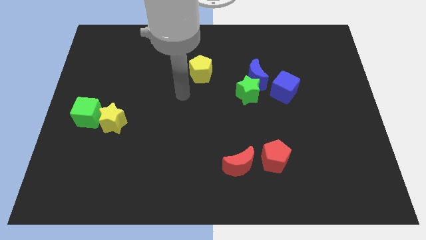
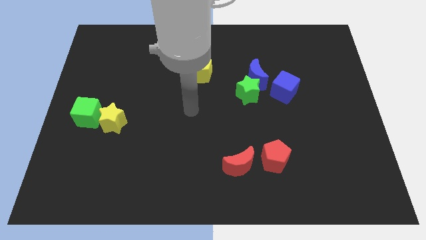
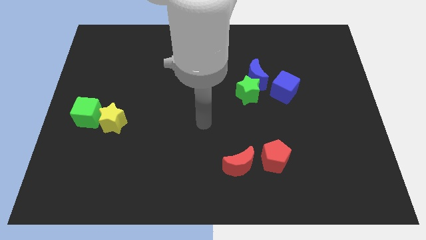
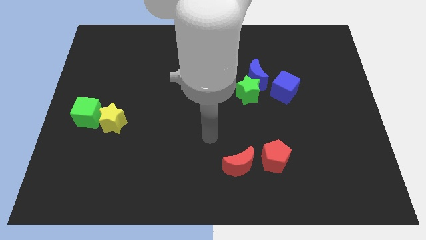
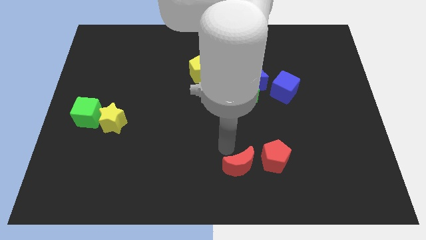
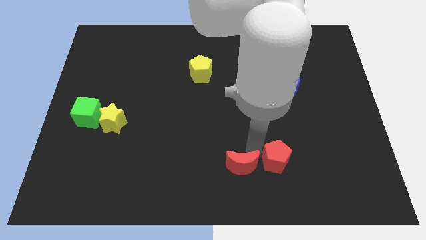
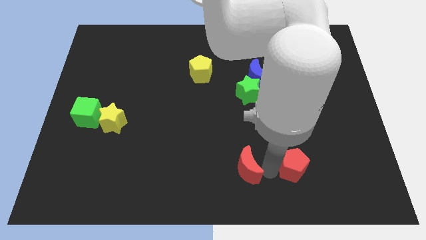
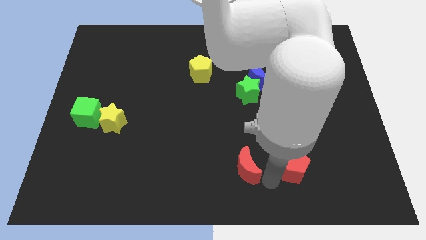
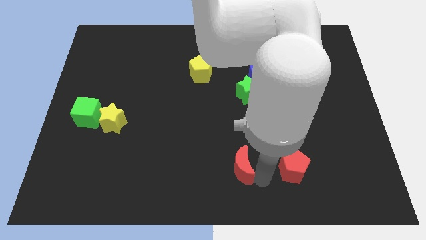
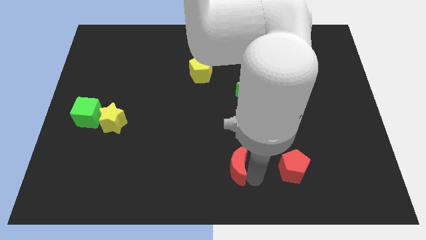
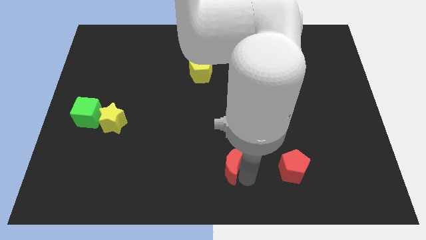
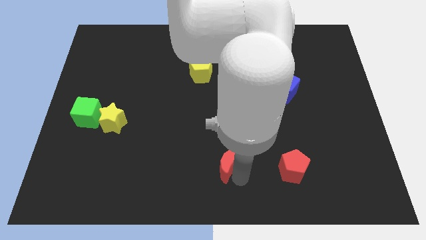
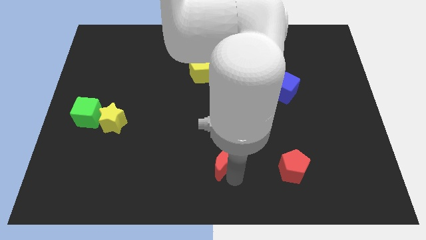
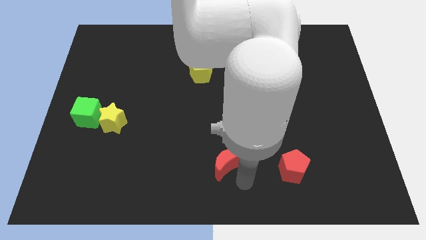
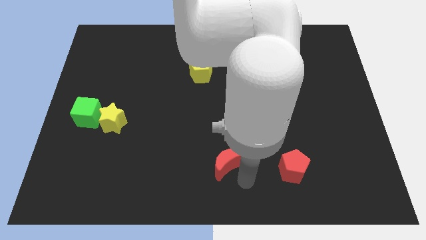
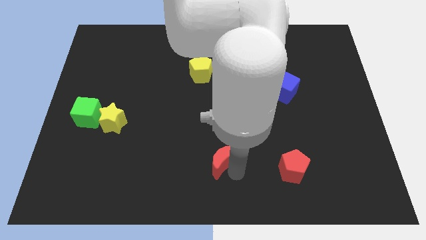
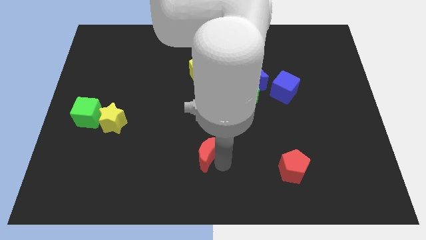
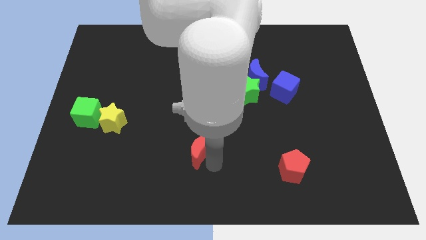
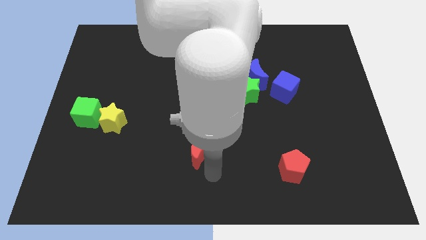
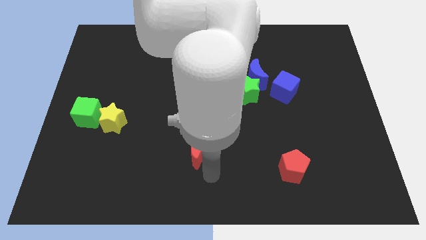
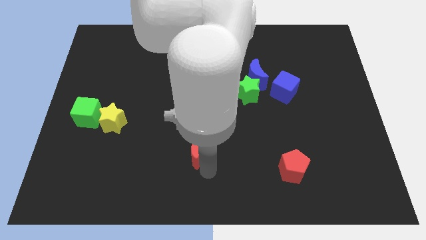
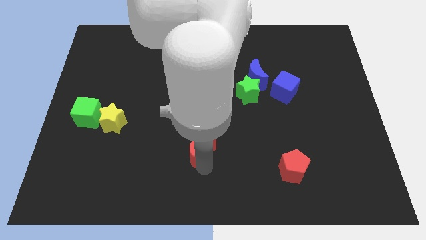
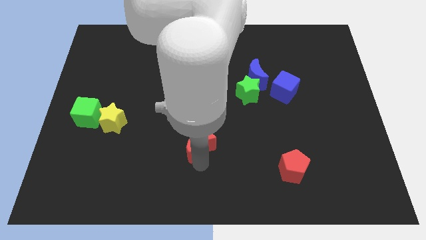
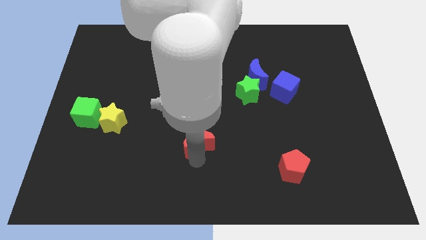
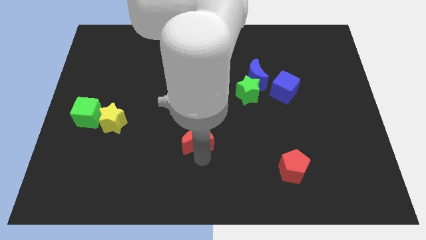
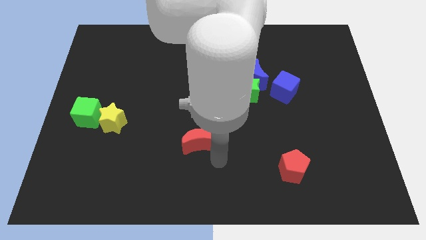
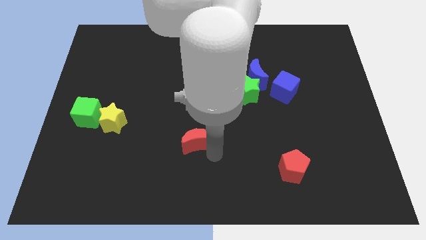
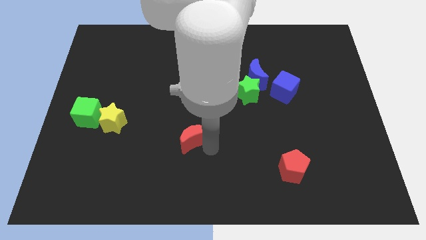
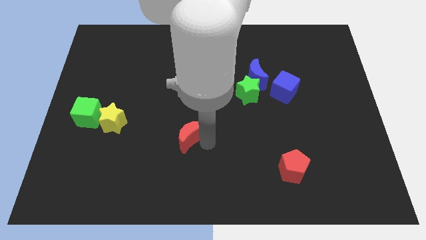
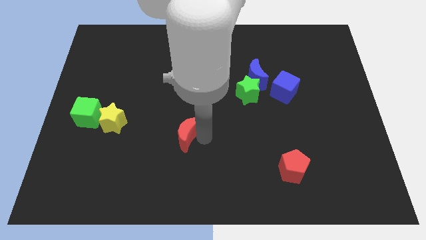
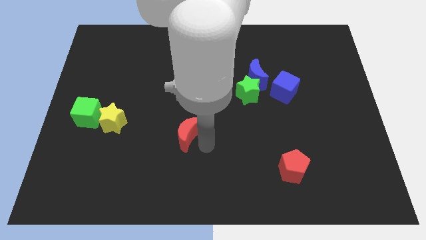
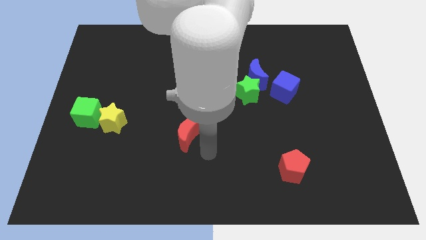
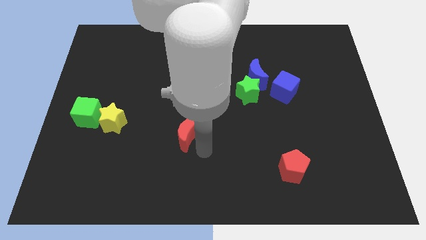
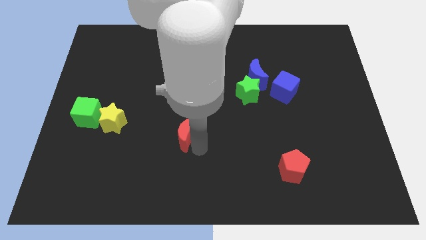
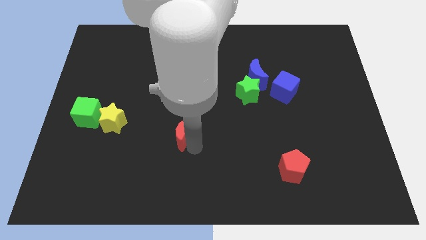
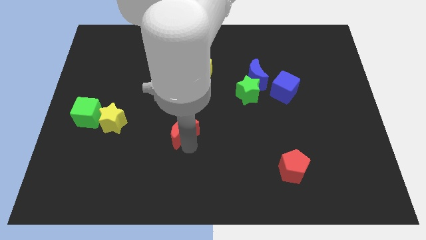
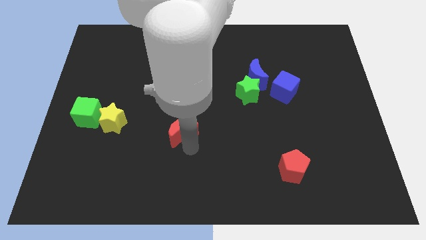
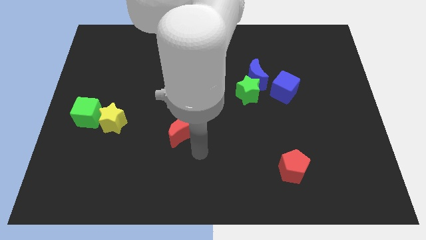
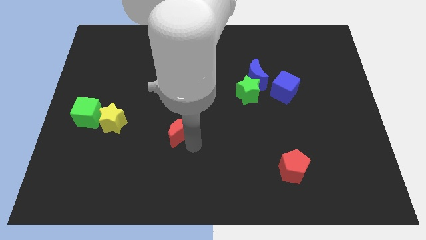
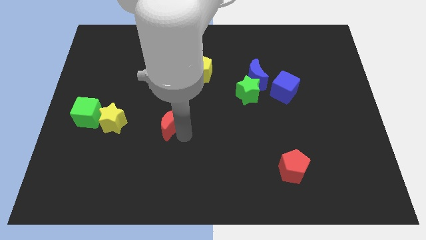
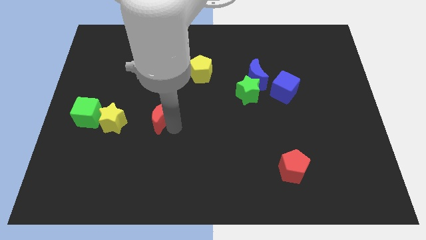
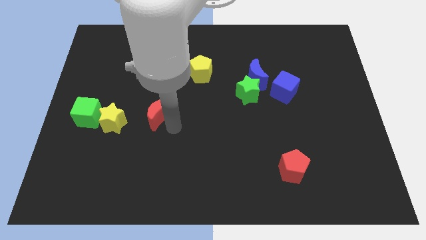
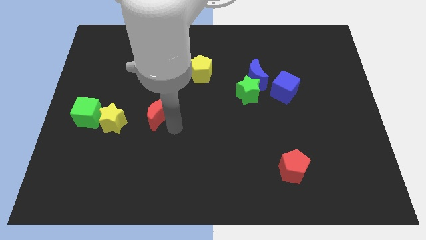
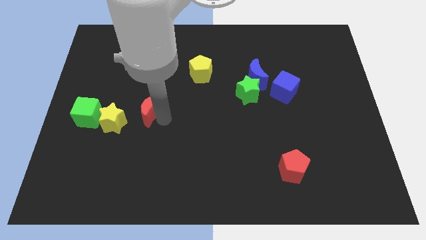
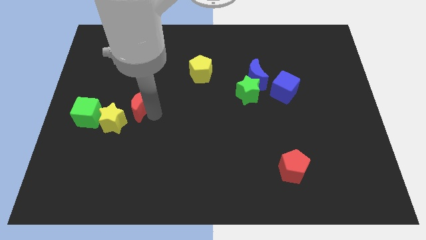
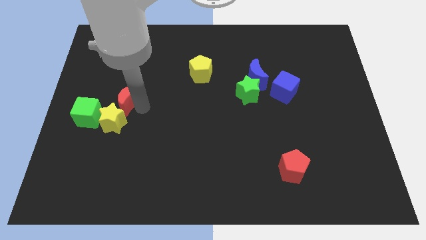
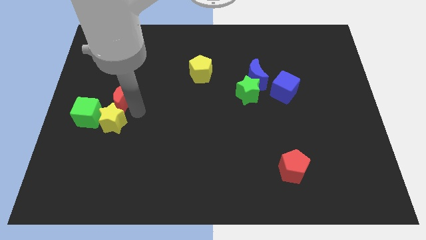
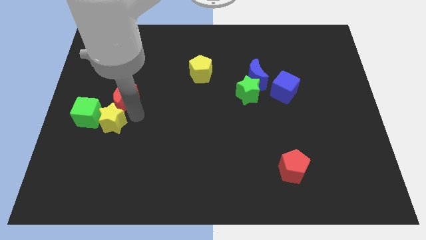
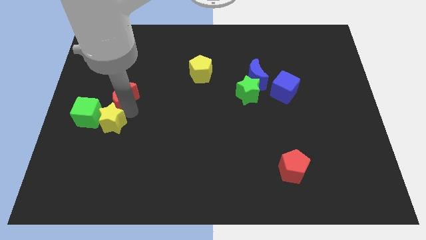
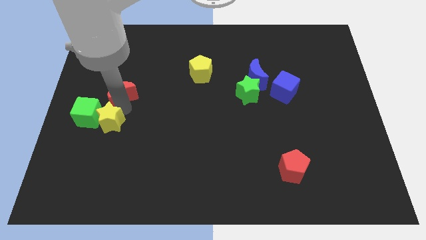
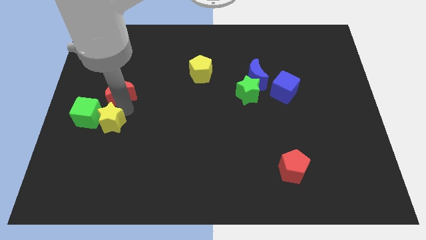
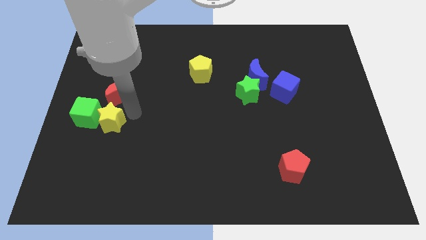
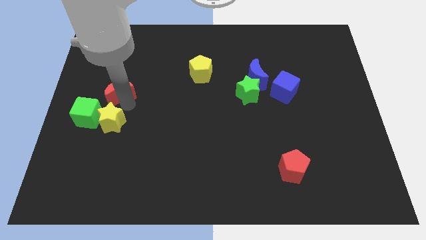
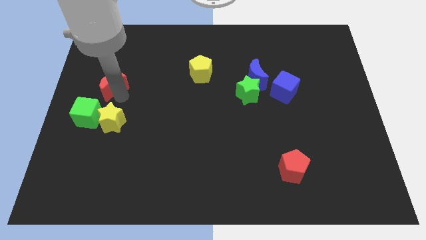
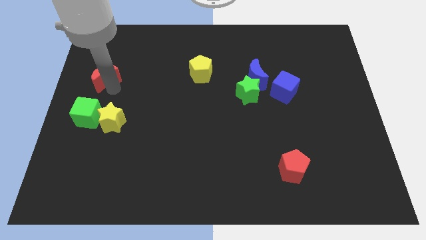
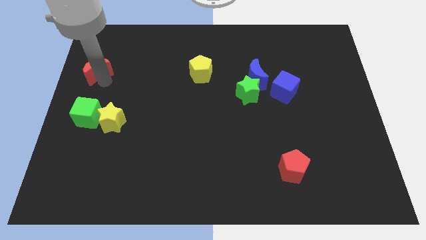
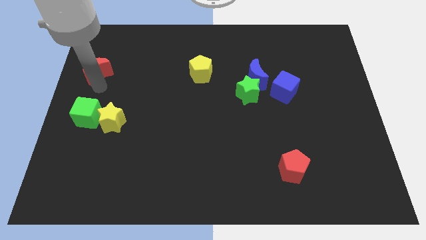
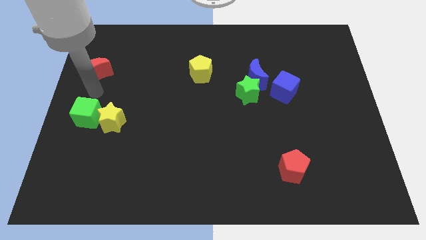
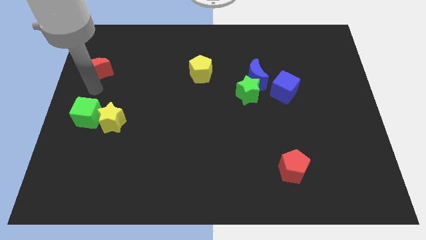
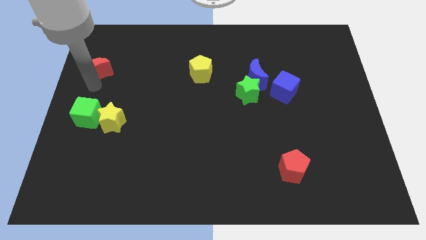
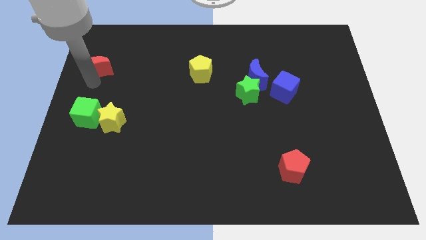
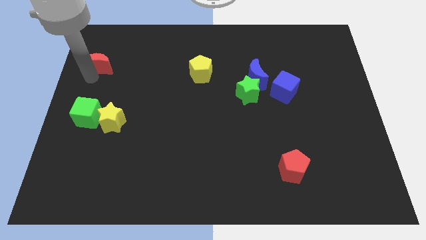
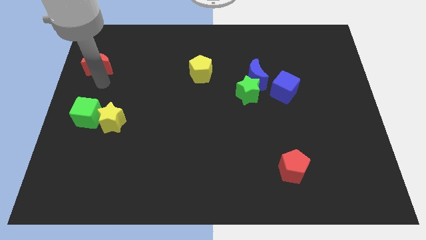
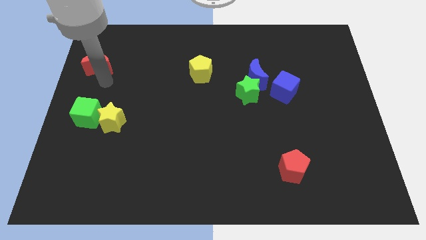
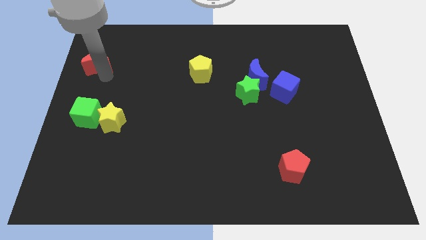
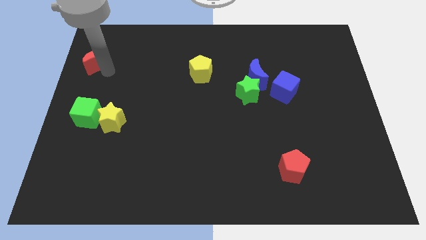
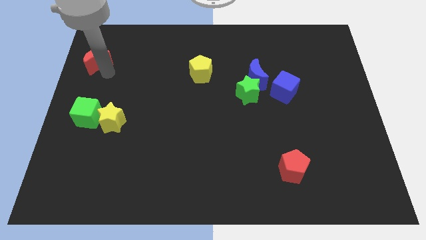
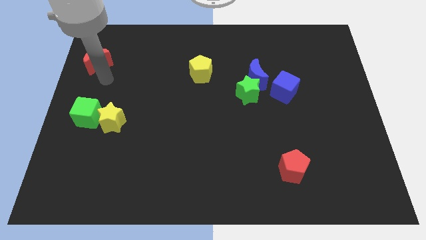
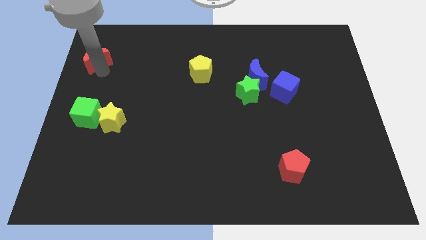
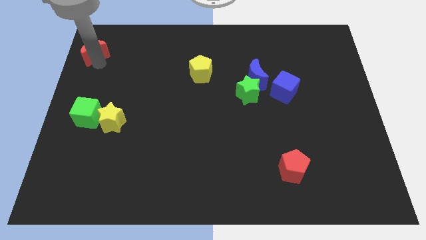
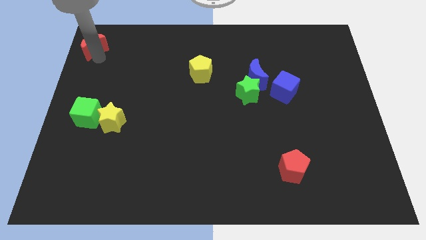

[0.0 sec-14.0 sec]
slide the red moon to the top left corner
